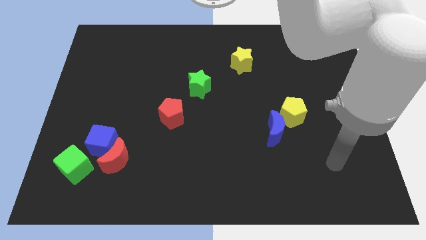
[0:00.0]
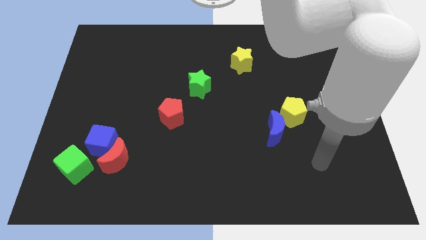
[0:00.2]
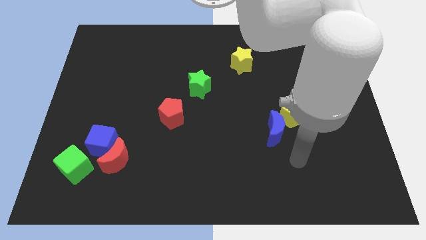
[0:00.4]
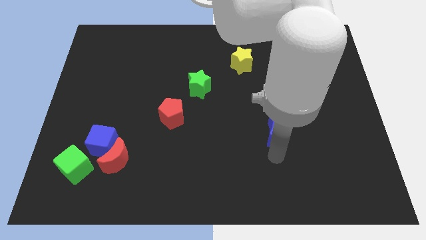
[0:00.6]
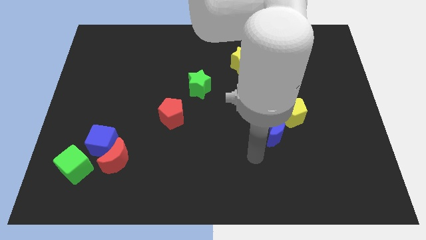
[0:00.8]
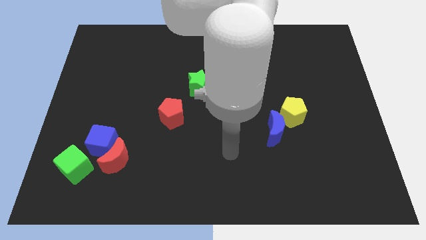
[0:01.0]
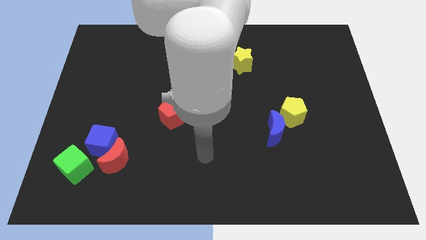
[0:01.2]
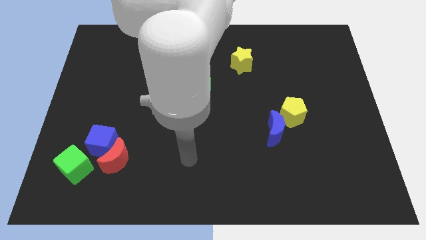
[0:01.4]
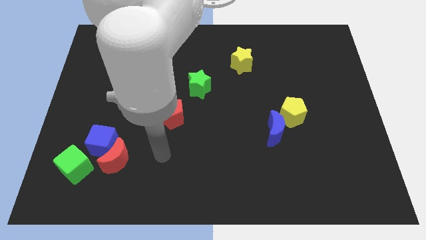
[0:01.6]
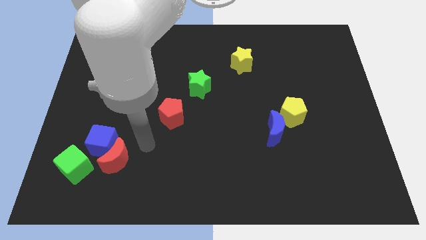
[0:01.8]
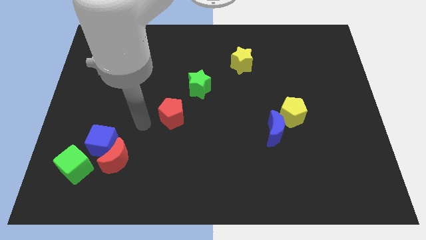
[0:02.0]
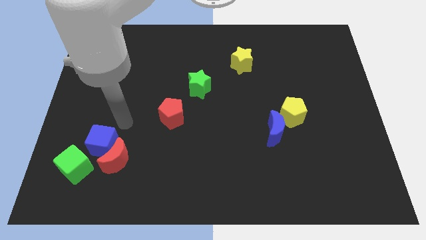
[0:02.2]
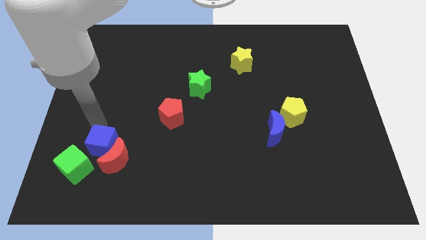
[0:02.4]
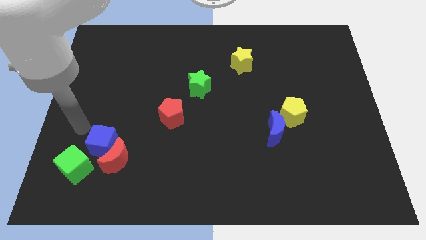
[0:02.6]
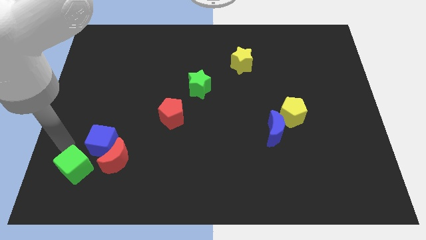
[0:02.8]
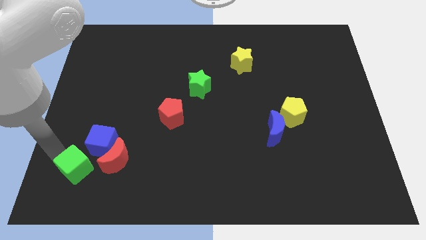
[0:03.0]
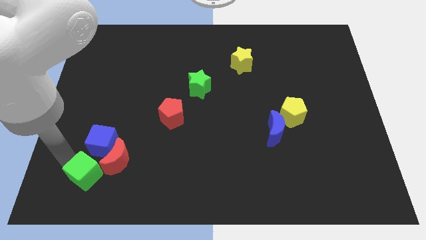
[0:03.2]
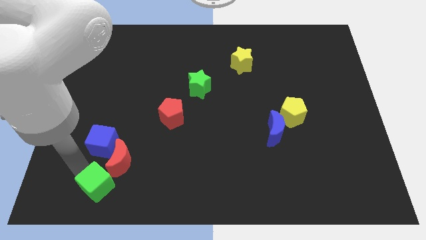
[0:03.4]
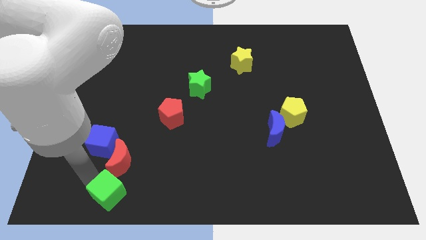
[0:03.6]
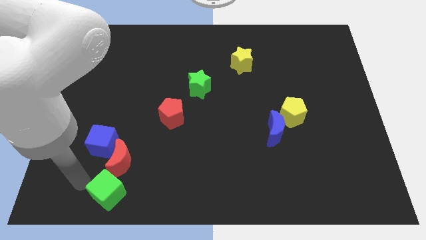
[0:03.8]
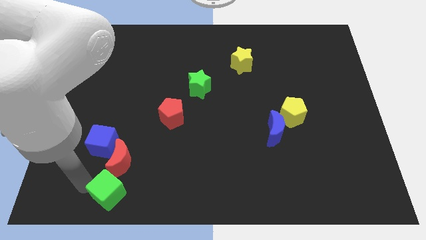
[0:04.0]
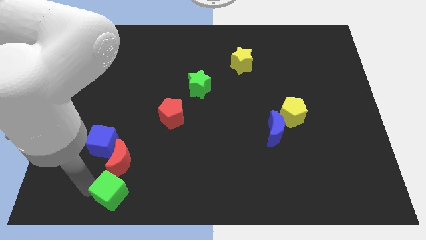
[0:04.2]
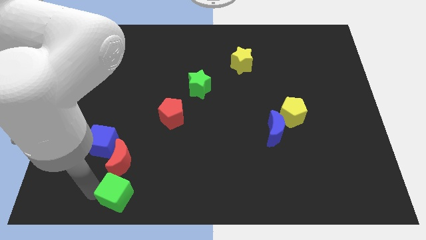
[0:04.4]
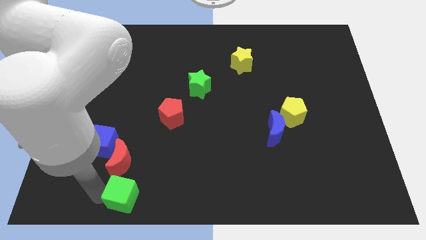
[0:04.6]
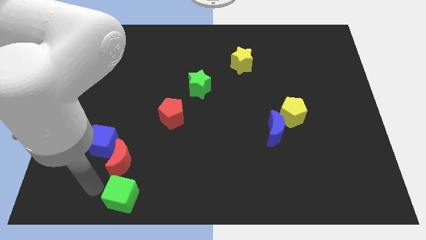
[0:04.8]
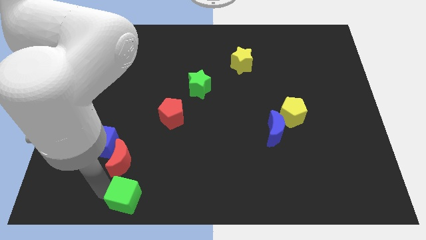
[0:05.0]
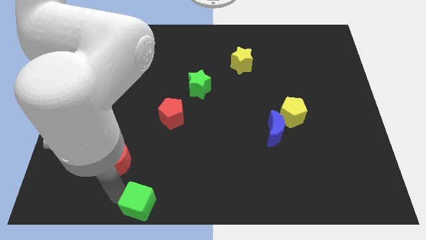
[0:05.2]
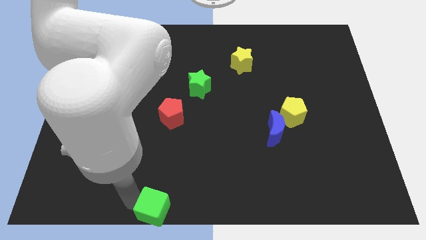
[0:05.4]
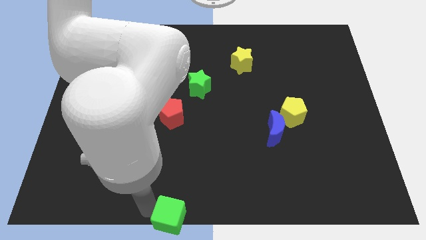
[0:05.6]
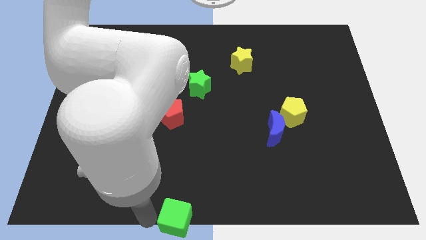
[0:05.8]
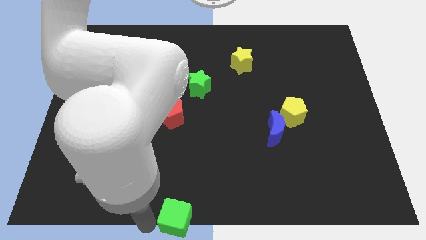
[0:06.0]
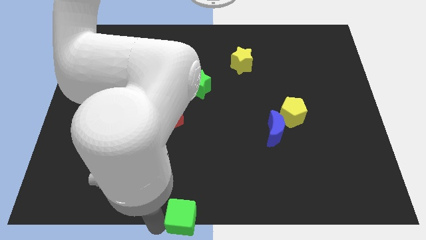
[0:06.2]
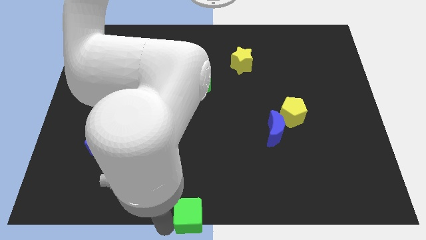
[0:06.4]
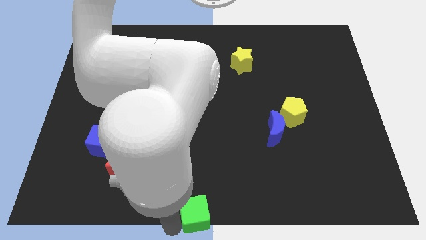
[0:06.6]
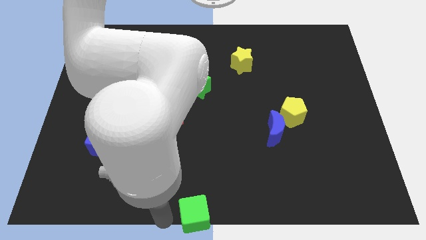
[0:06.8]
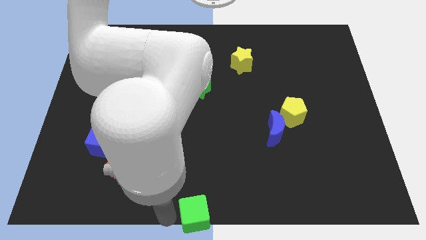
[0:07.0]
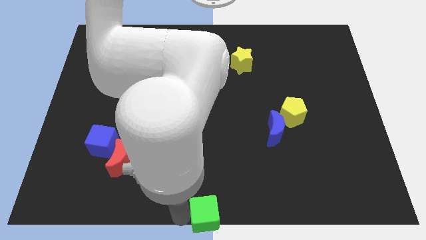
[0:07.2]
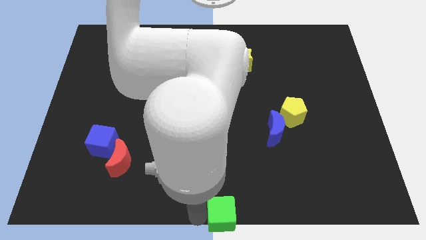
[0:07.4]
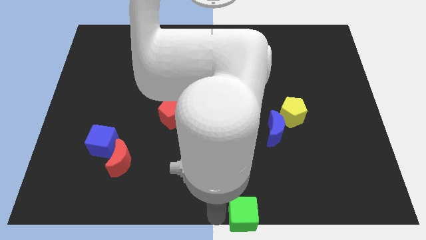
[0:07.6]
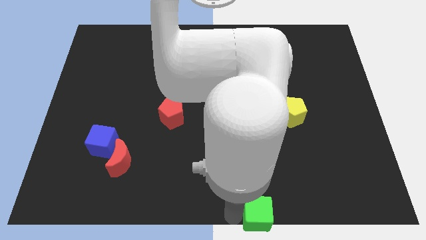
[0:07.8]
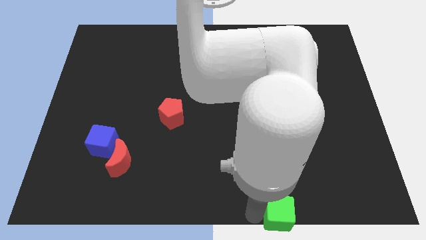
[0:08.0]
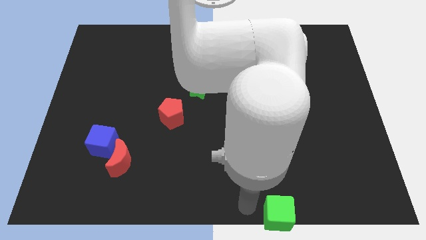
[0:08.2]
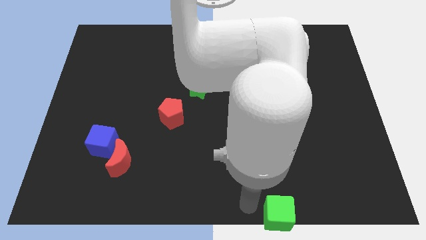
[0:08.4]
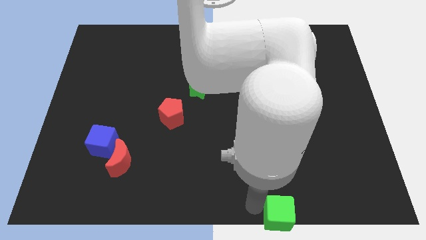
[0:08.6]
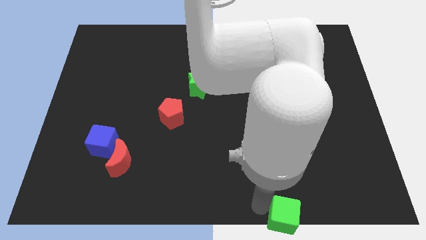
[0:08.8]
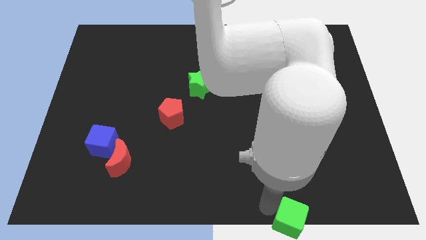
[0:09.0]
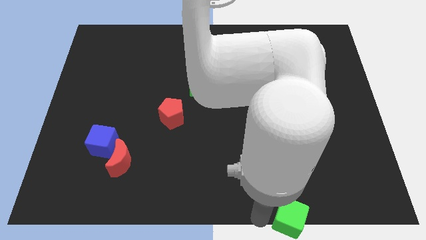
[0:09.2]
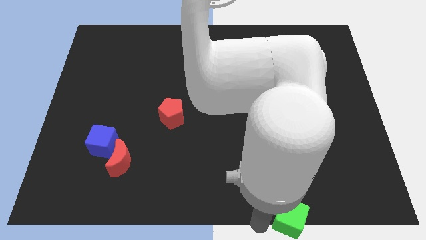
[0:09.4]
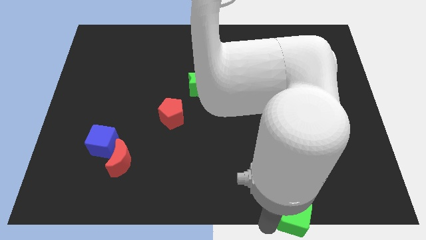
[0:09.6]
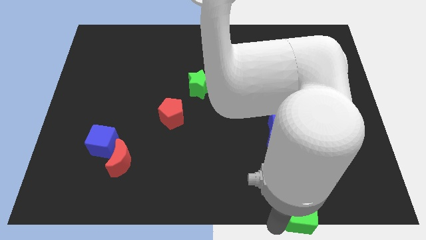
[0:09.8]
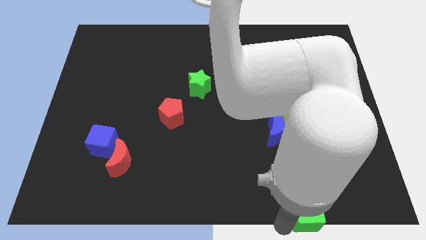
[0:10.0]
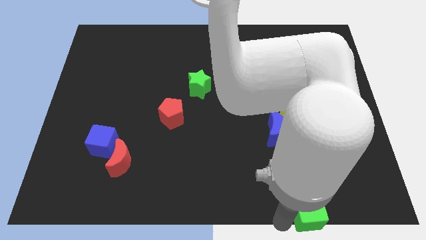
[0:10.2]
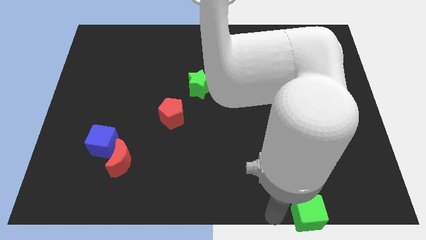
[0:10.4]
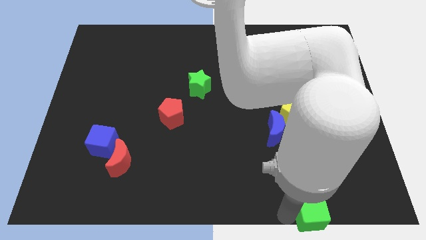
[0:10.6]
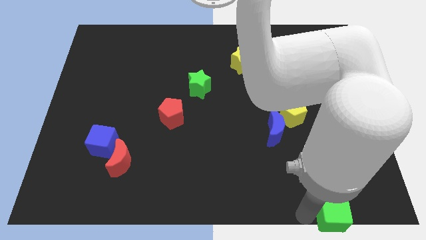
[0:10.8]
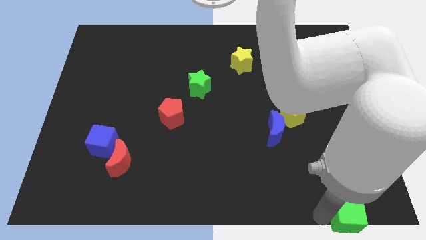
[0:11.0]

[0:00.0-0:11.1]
push the green cube to the lower right corner
